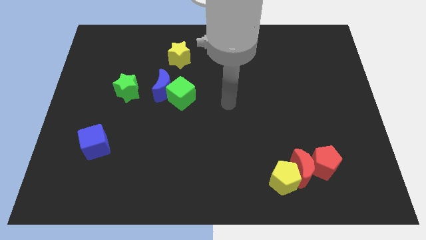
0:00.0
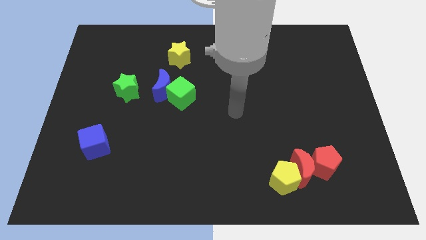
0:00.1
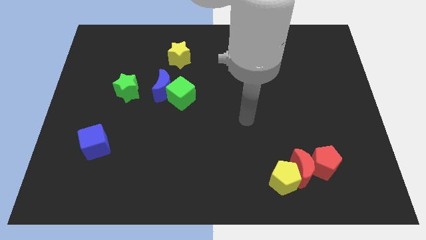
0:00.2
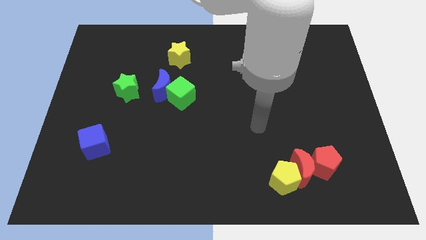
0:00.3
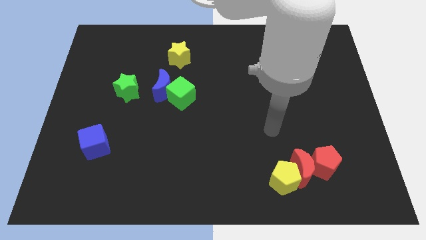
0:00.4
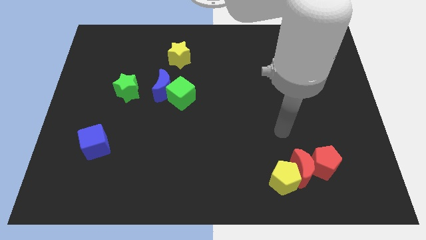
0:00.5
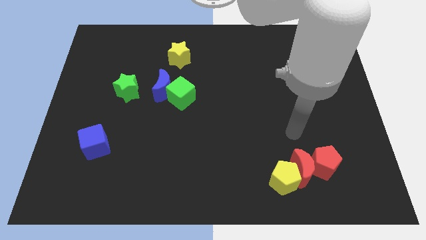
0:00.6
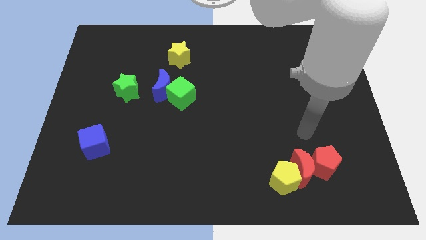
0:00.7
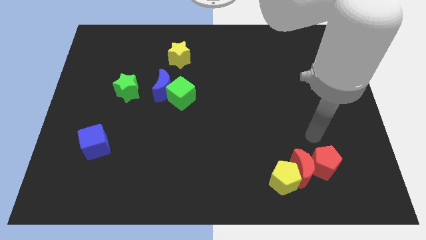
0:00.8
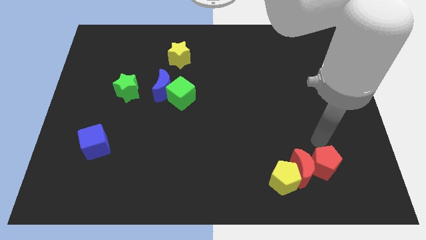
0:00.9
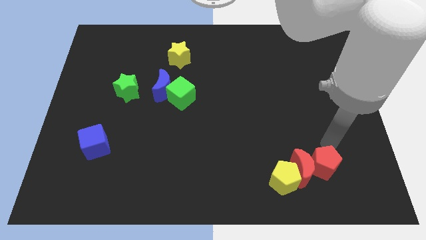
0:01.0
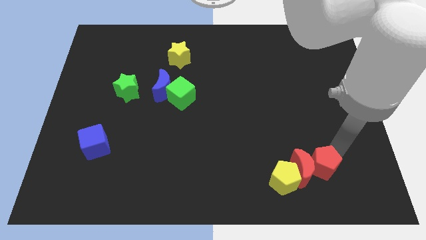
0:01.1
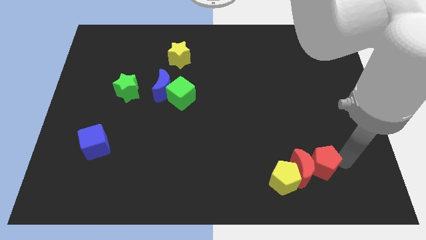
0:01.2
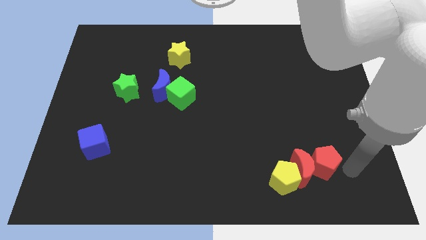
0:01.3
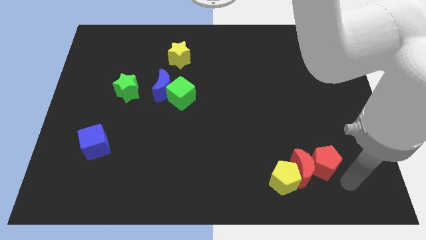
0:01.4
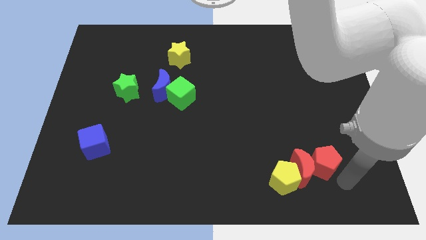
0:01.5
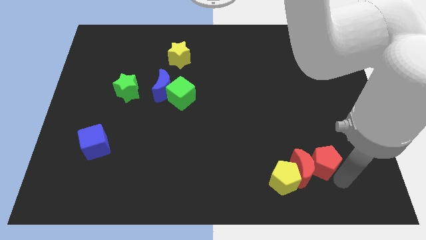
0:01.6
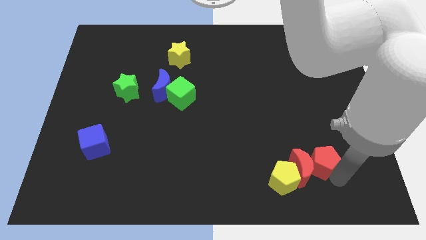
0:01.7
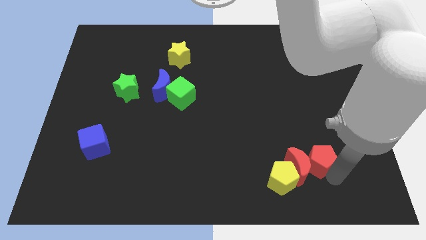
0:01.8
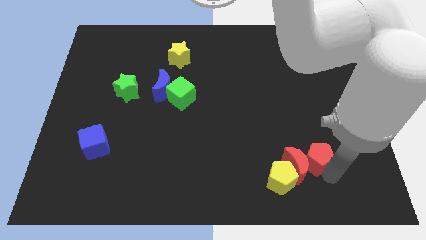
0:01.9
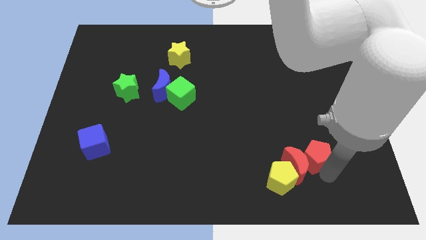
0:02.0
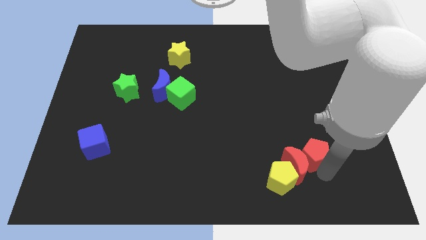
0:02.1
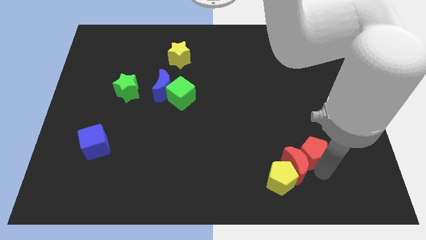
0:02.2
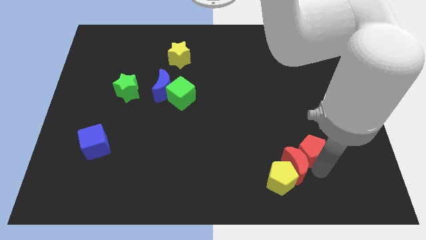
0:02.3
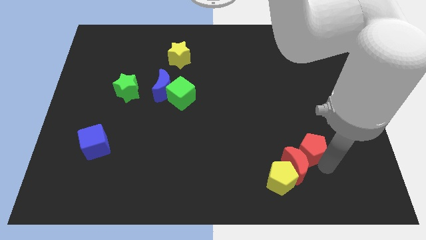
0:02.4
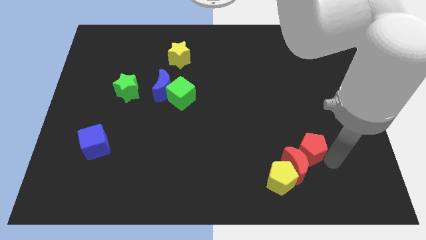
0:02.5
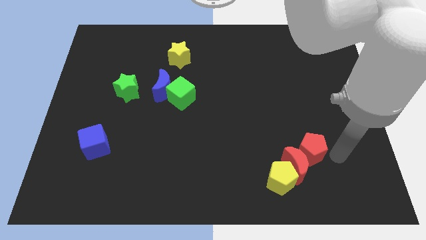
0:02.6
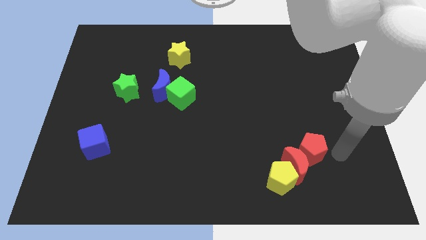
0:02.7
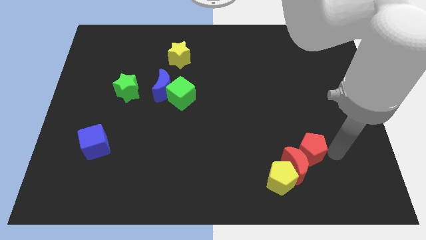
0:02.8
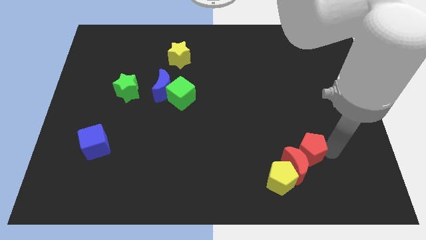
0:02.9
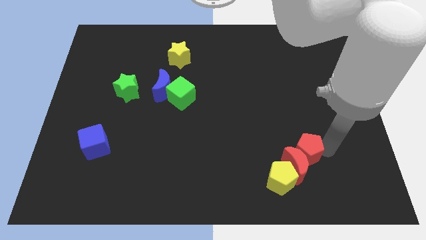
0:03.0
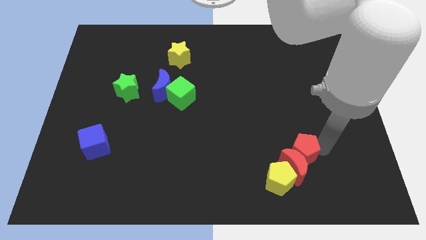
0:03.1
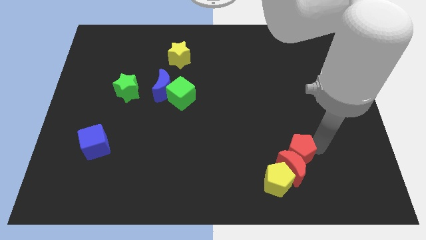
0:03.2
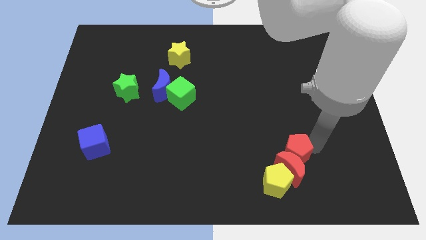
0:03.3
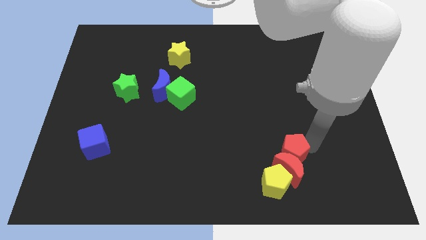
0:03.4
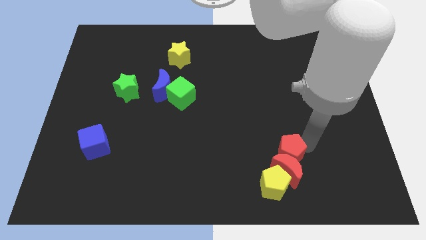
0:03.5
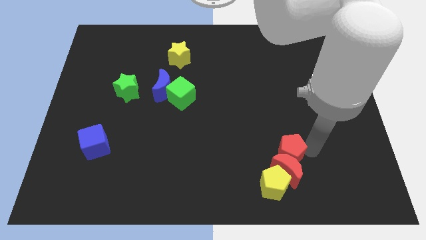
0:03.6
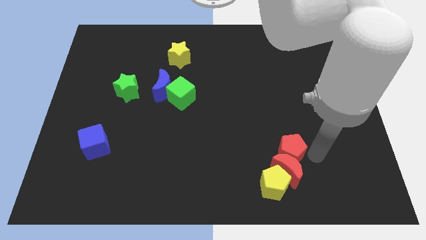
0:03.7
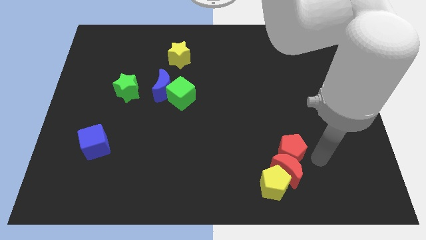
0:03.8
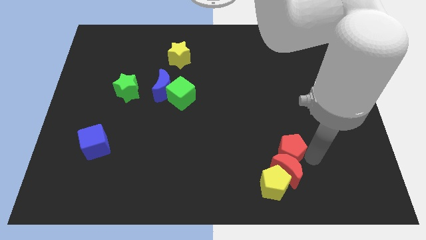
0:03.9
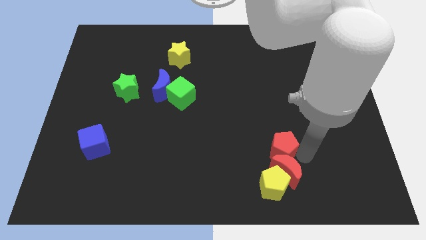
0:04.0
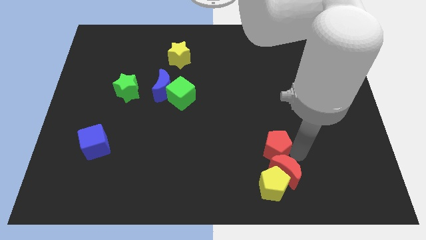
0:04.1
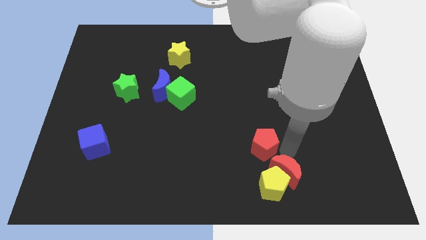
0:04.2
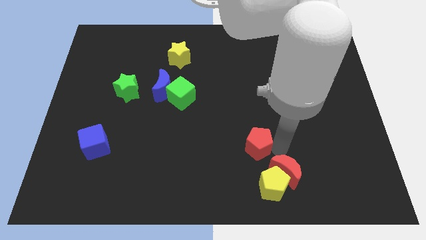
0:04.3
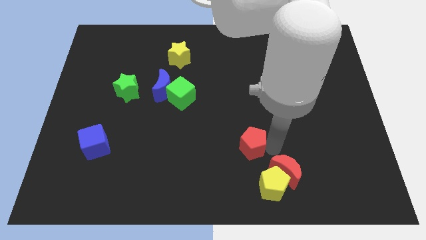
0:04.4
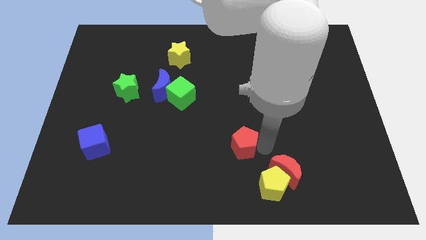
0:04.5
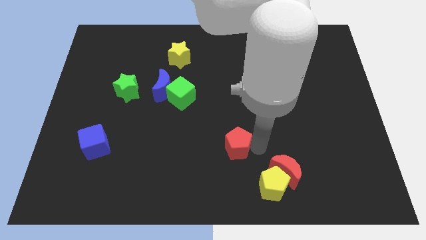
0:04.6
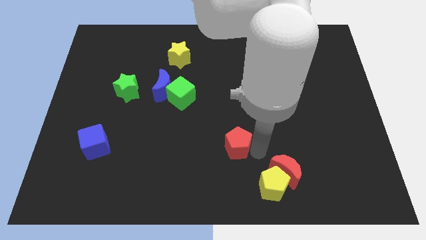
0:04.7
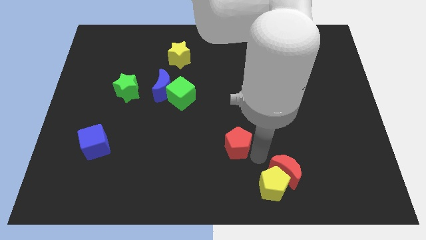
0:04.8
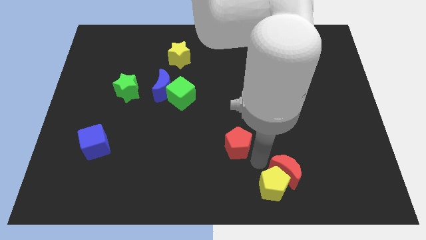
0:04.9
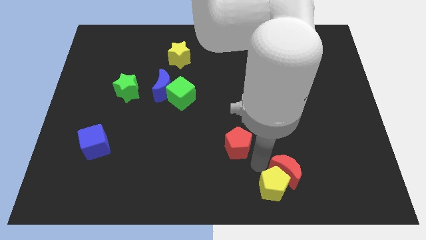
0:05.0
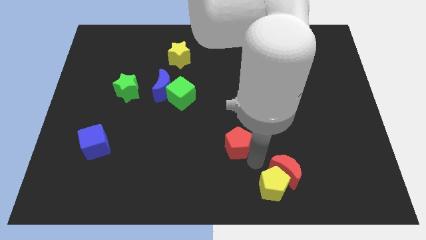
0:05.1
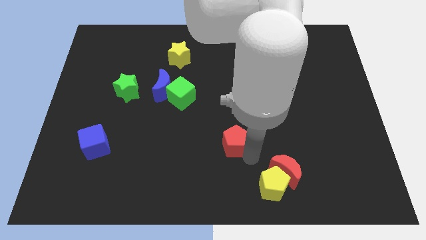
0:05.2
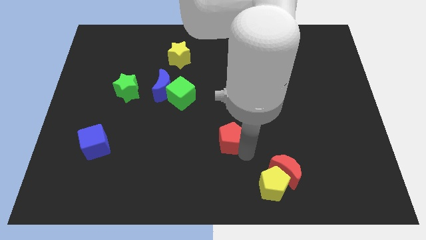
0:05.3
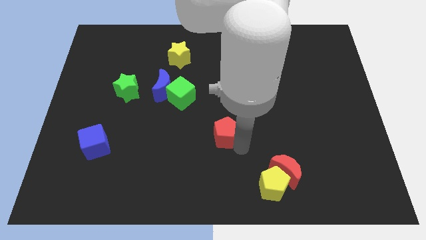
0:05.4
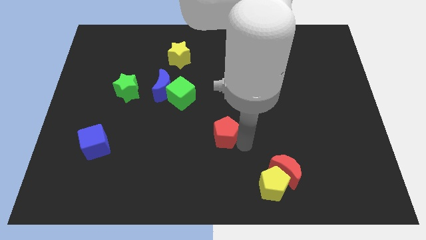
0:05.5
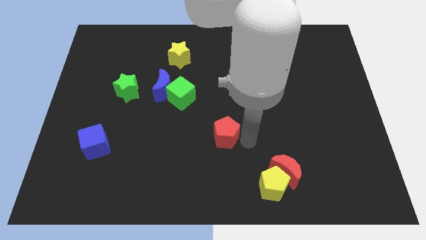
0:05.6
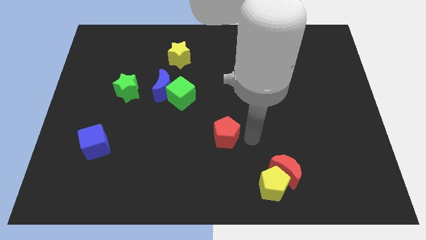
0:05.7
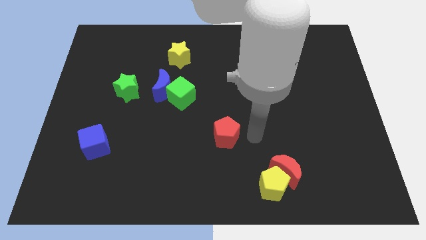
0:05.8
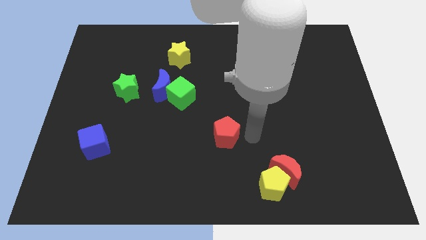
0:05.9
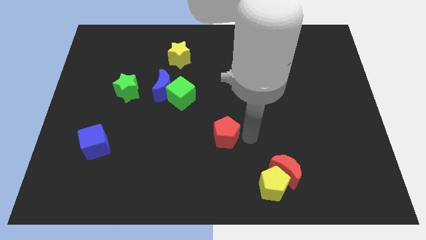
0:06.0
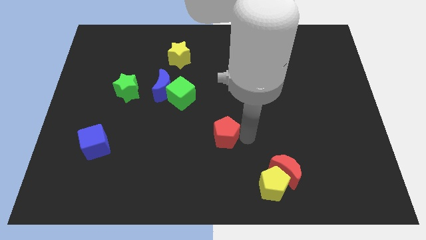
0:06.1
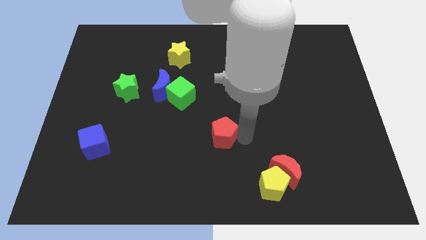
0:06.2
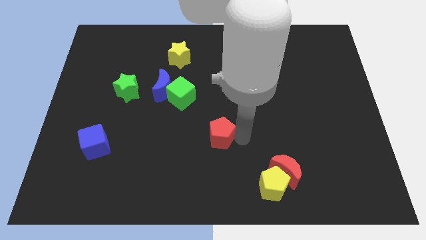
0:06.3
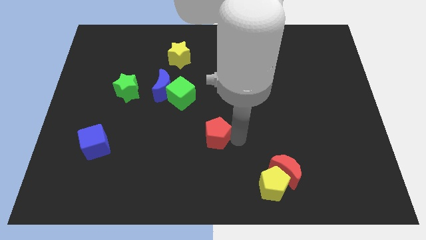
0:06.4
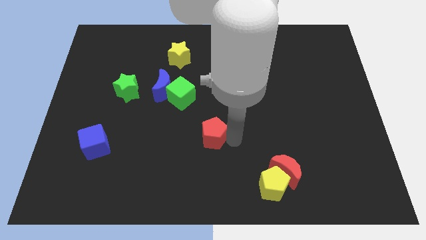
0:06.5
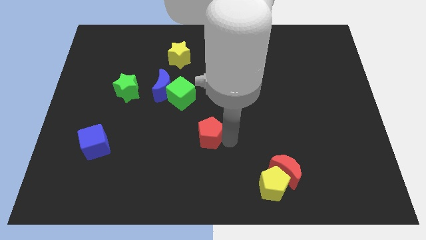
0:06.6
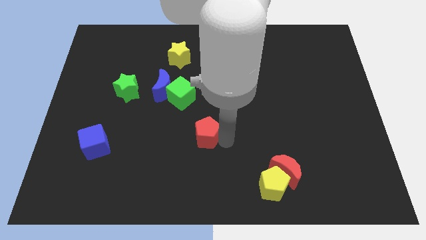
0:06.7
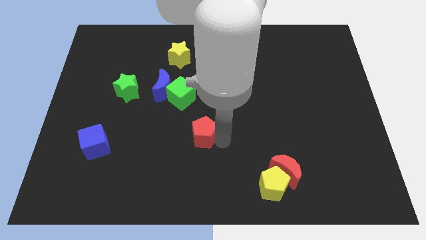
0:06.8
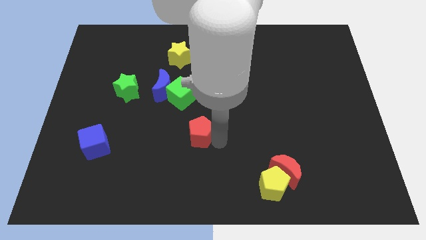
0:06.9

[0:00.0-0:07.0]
slide the red pentagon to the bottom side of the green cube

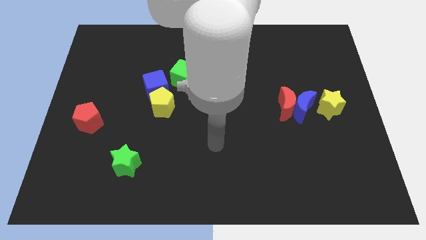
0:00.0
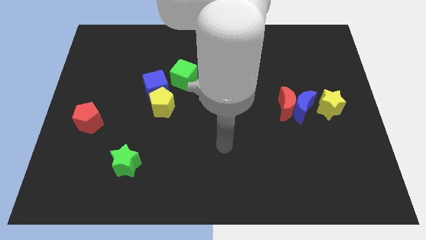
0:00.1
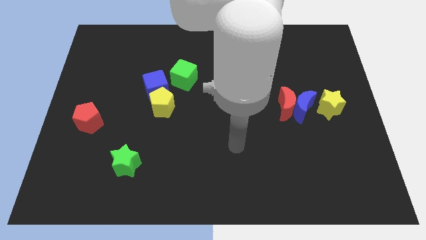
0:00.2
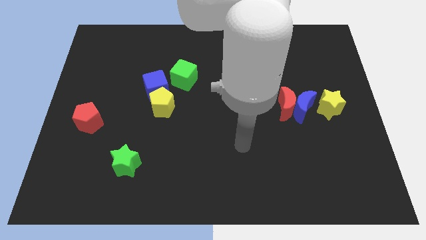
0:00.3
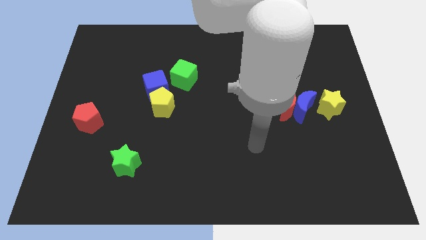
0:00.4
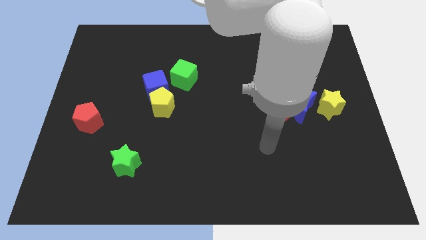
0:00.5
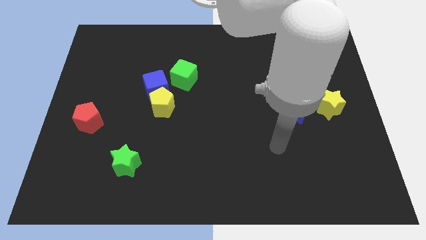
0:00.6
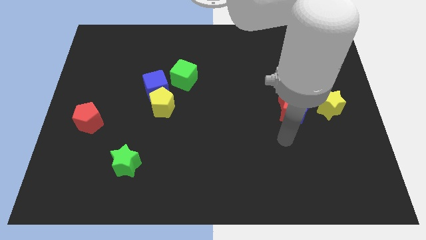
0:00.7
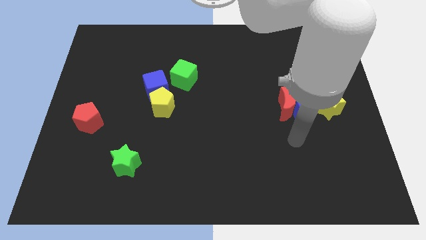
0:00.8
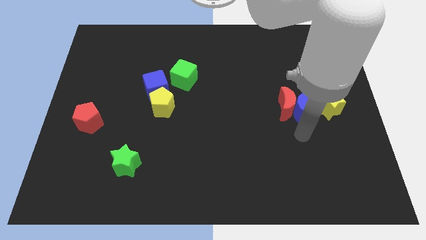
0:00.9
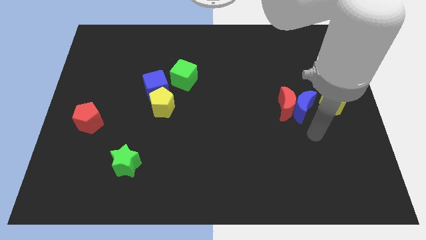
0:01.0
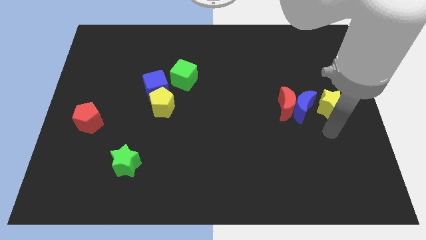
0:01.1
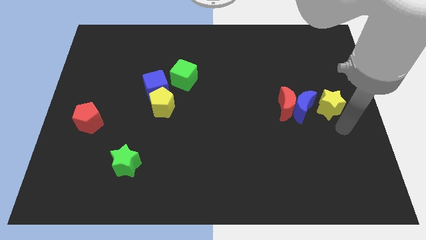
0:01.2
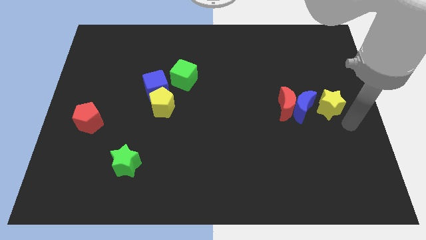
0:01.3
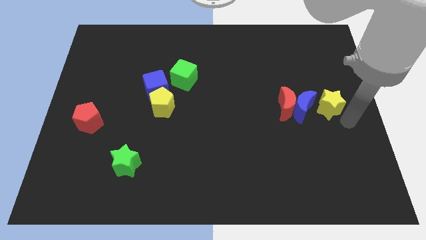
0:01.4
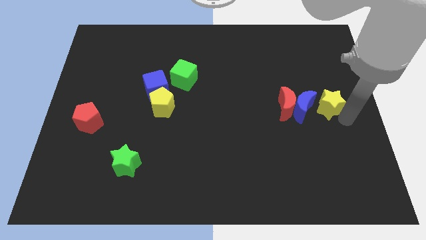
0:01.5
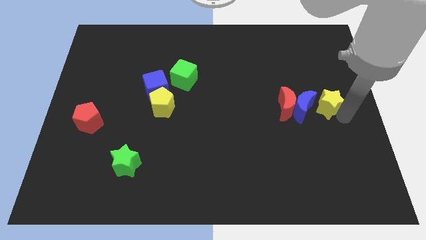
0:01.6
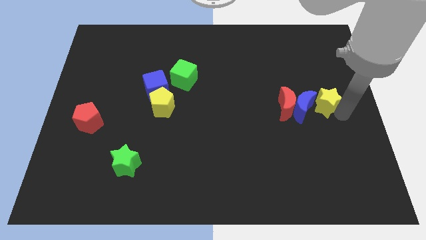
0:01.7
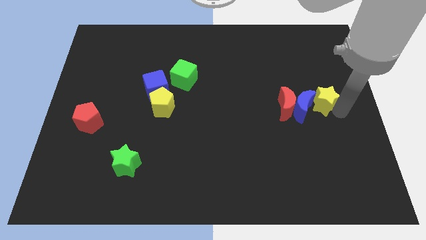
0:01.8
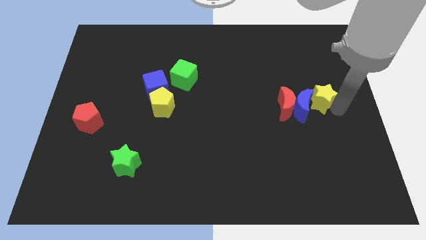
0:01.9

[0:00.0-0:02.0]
put the yellow star to the top right side of the red moon
